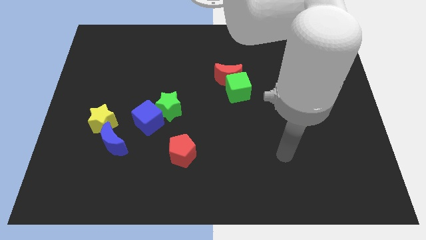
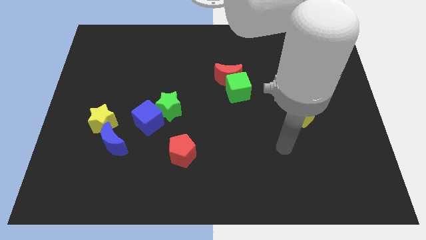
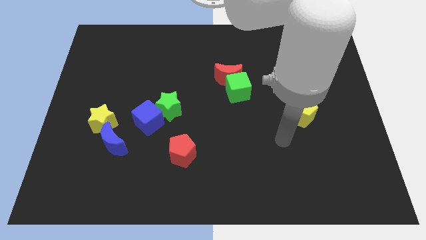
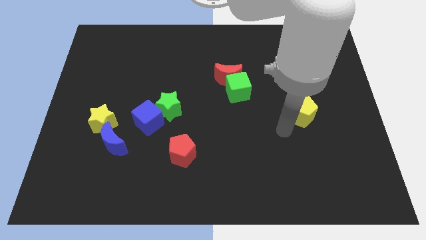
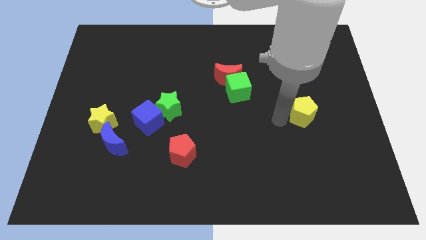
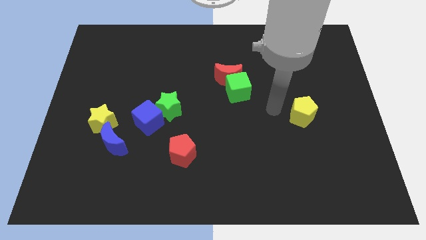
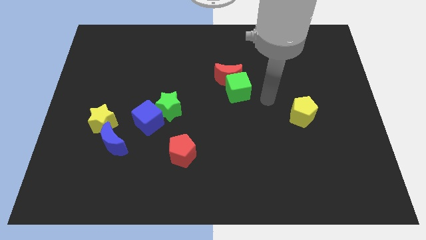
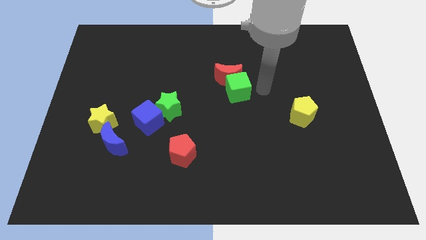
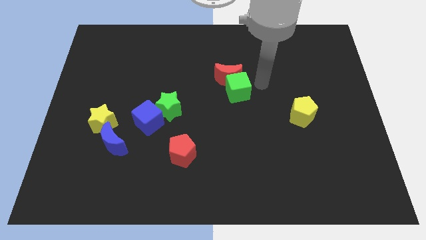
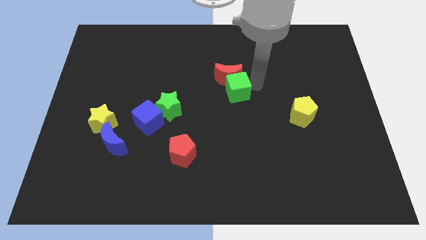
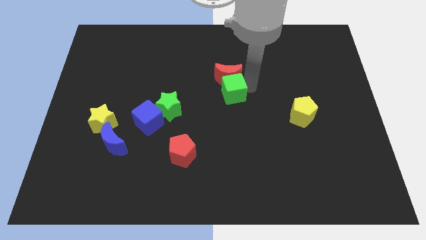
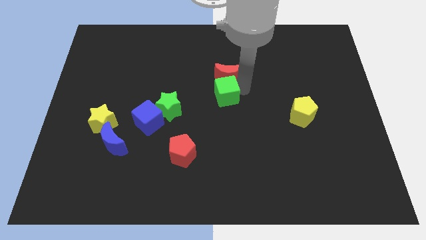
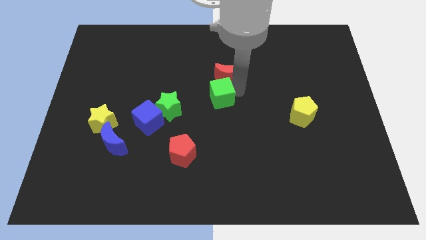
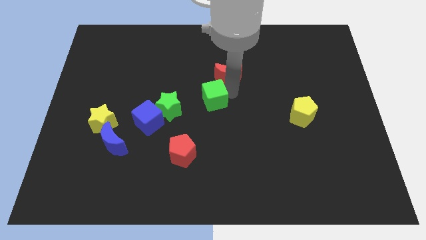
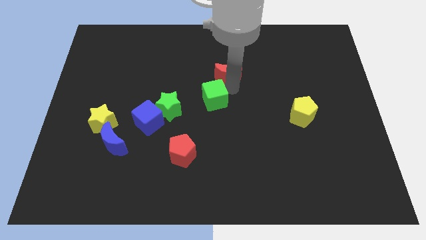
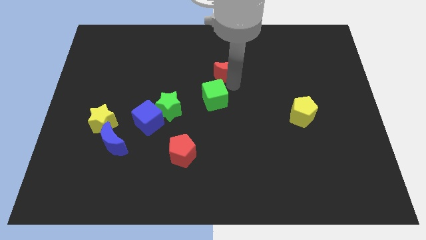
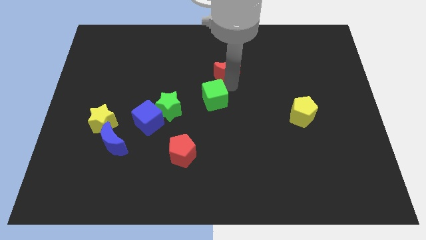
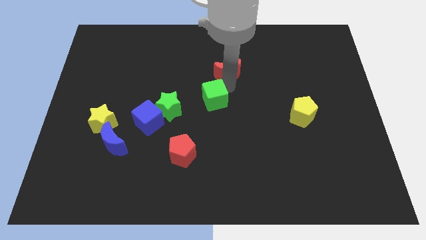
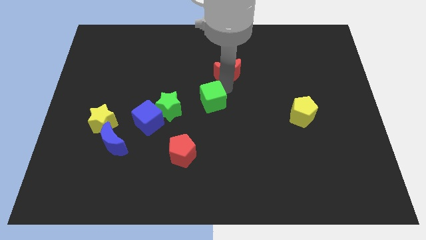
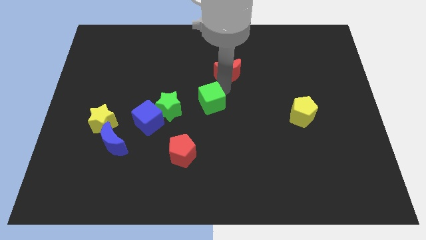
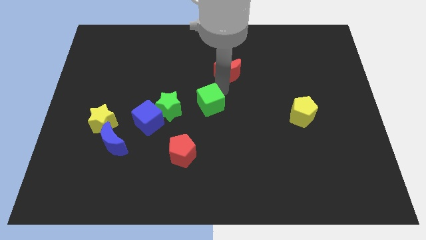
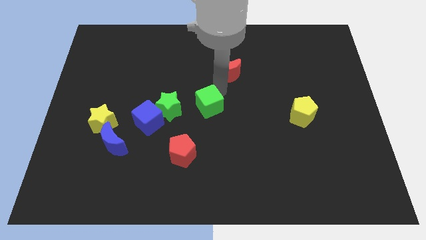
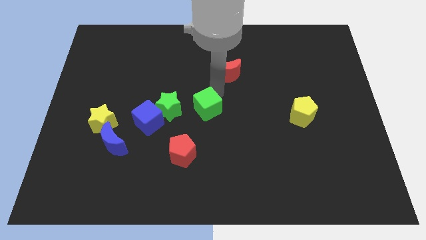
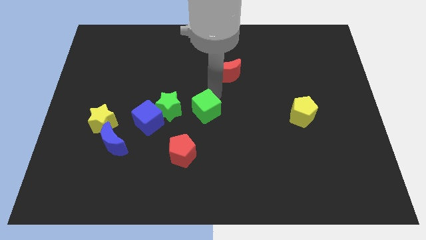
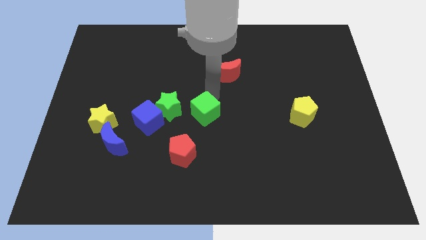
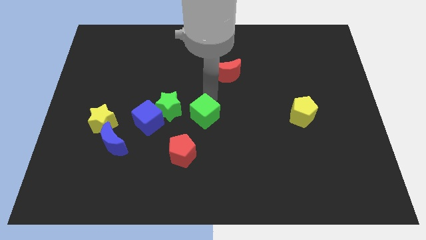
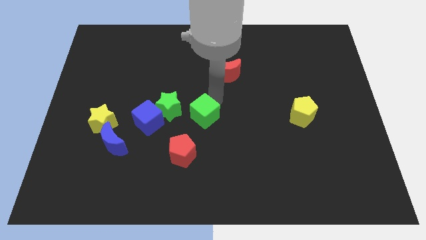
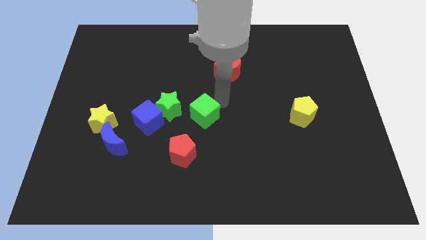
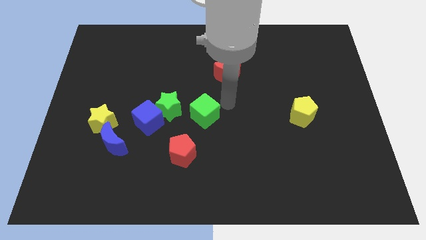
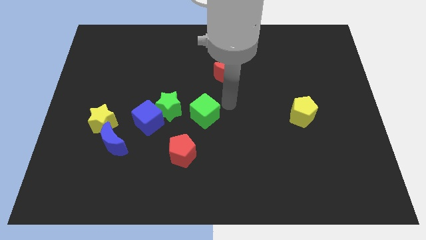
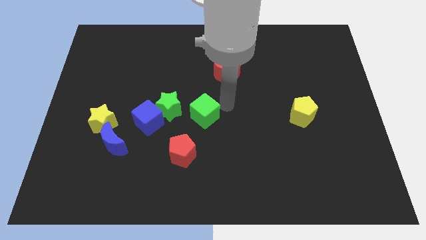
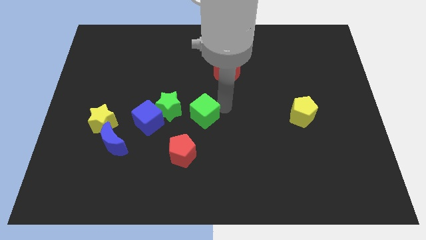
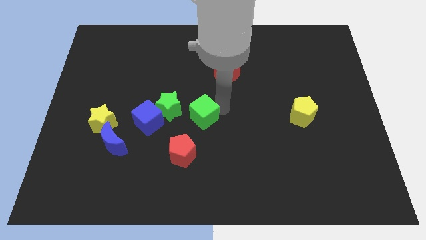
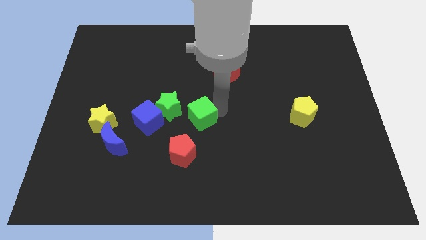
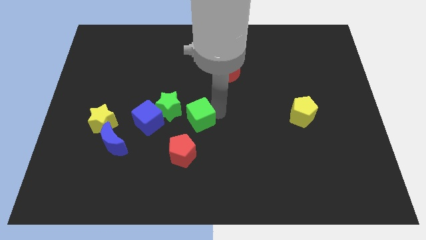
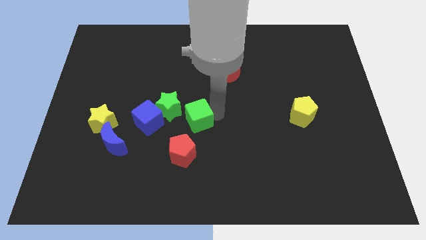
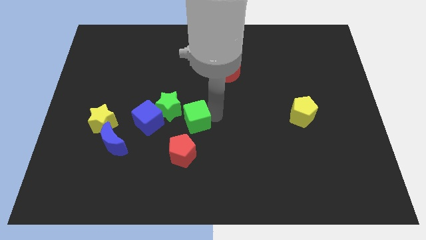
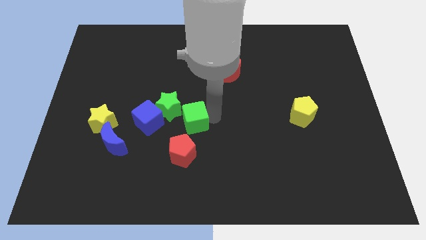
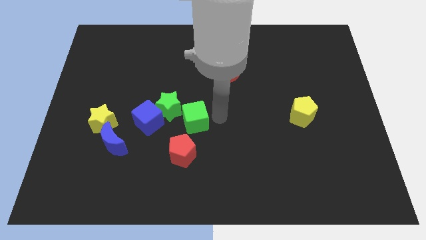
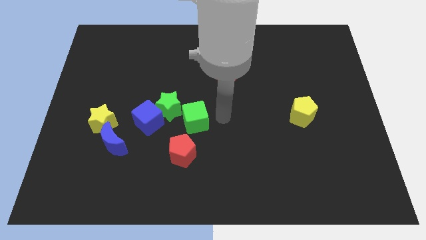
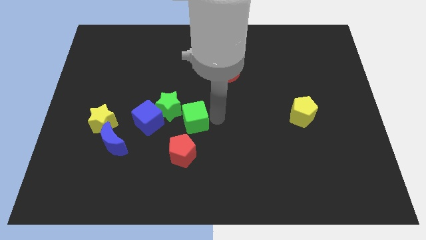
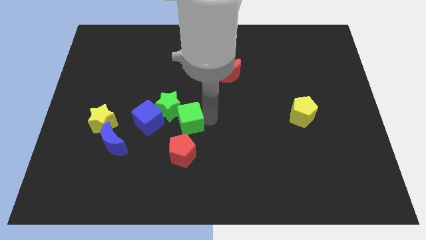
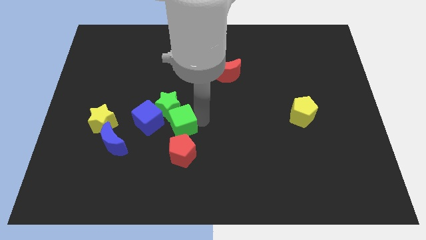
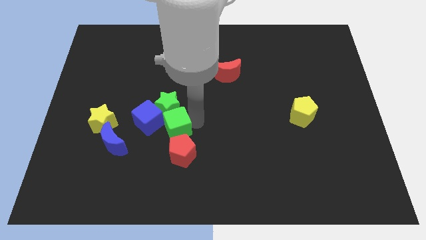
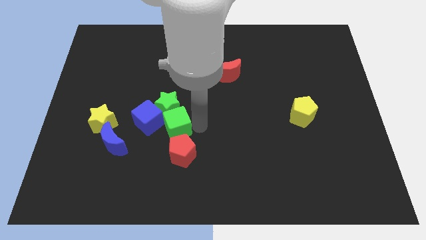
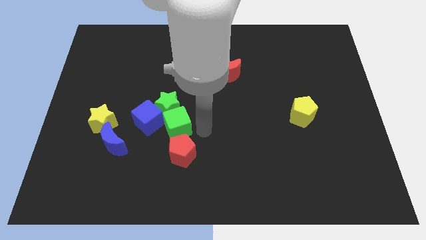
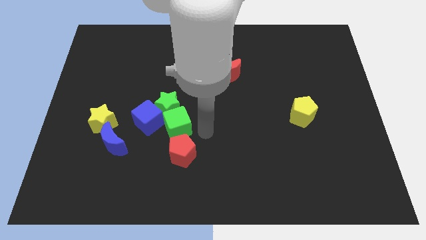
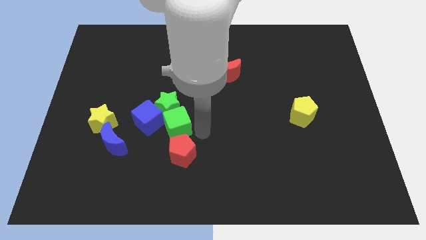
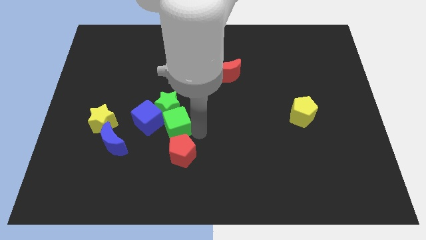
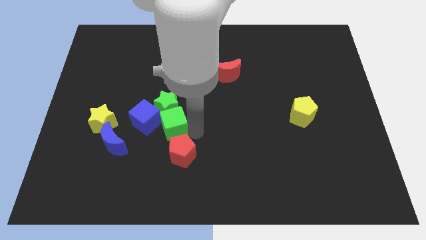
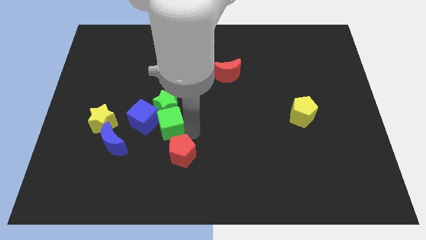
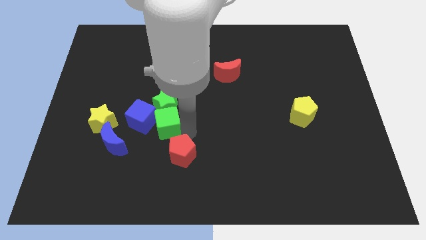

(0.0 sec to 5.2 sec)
slide the green cube close to the blue cube

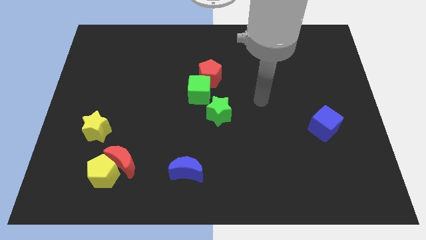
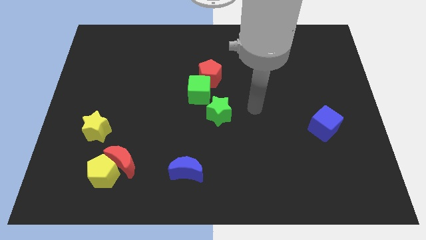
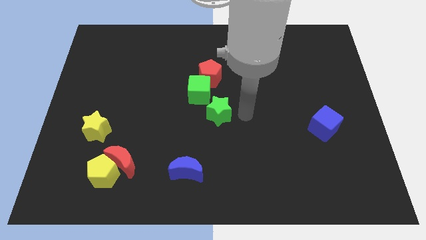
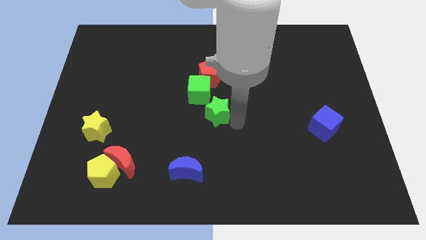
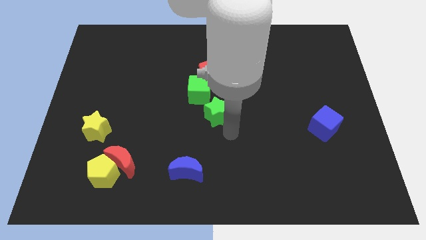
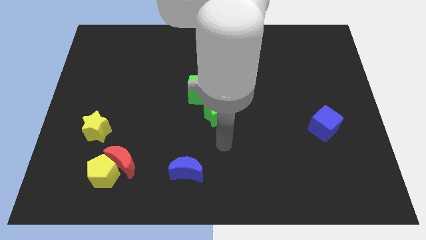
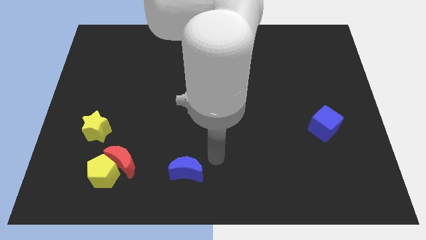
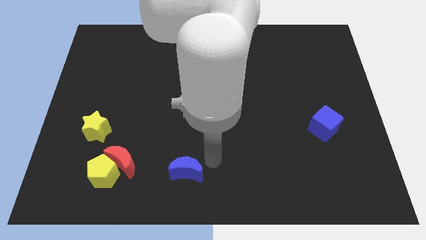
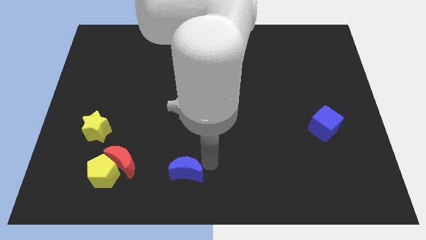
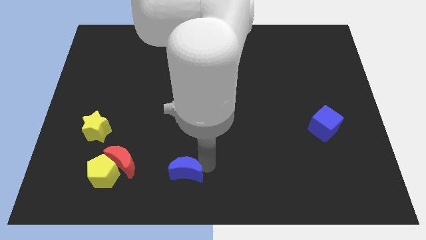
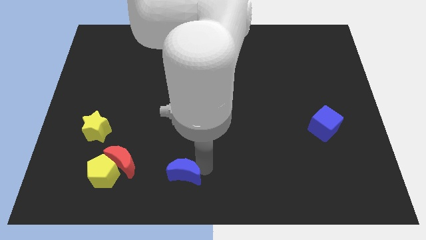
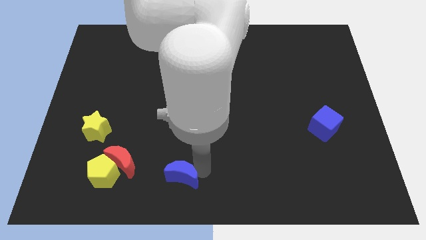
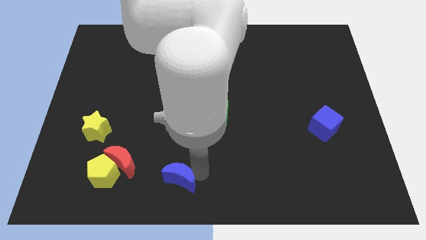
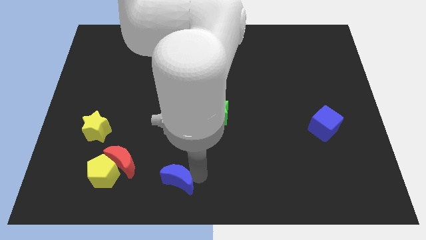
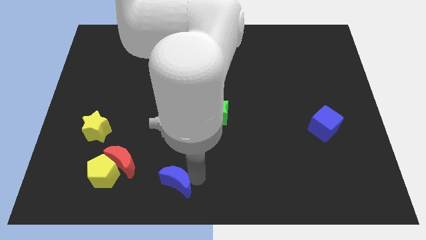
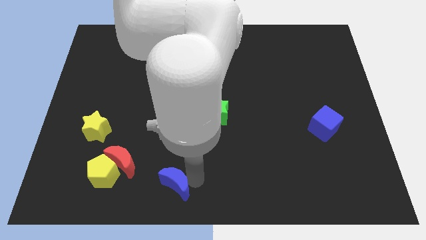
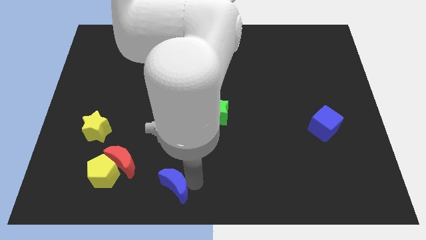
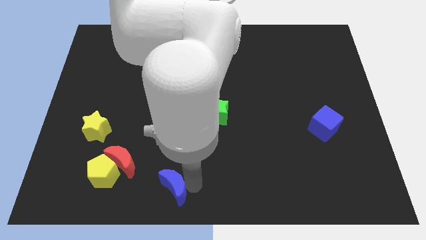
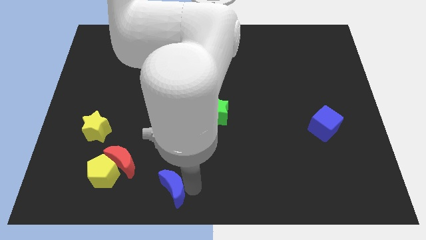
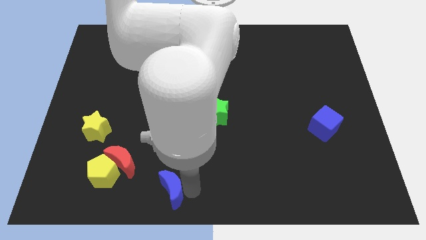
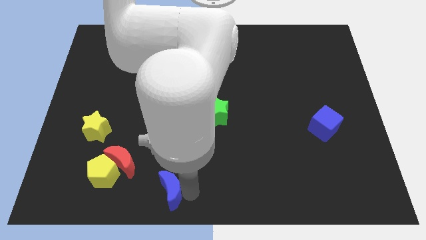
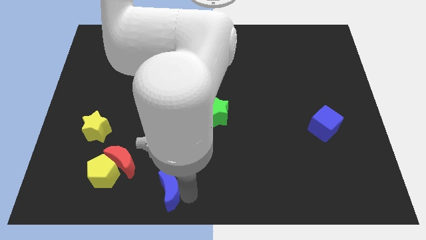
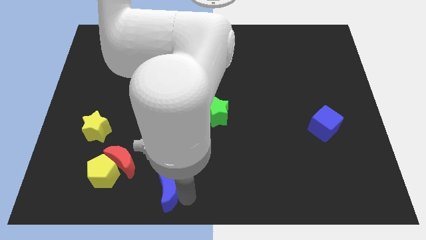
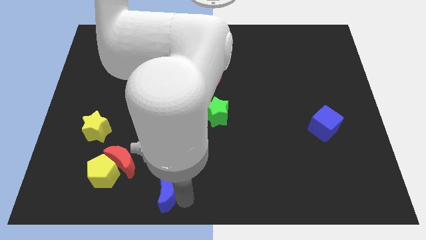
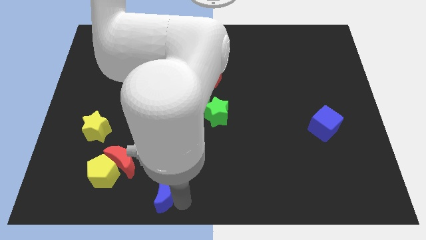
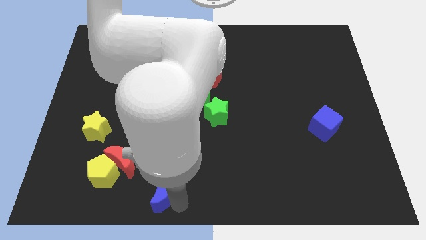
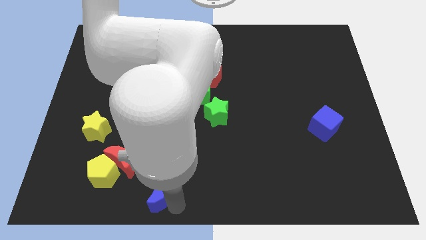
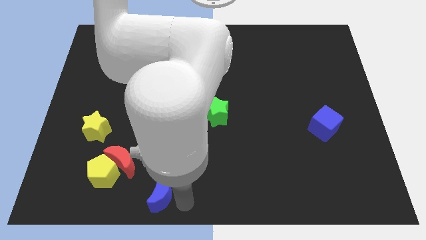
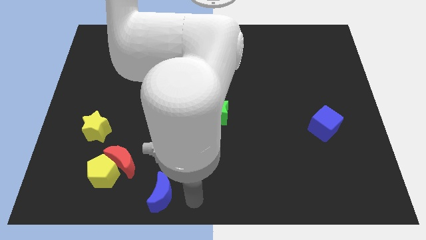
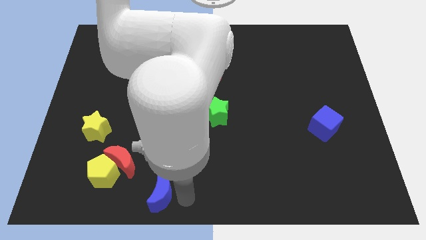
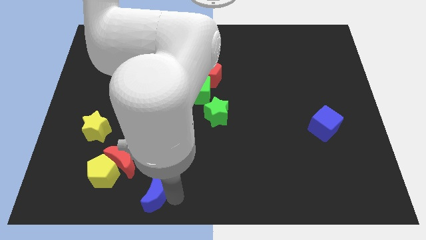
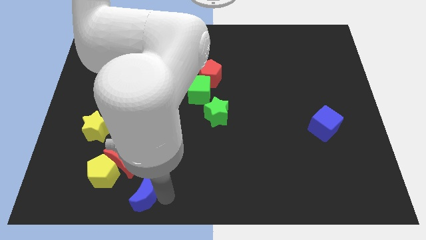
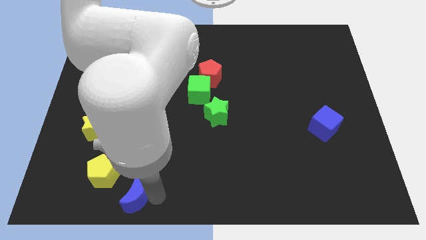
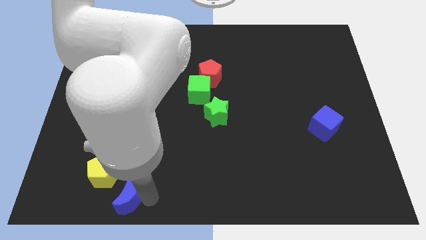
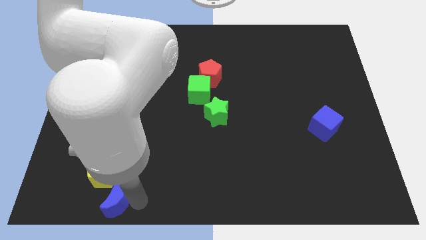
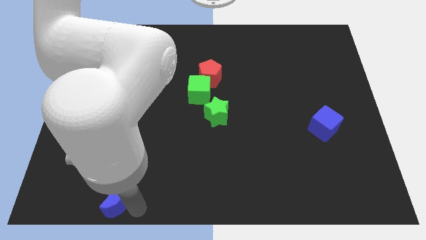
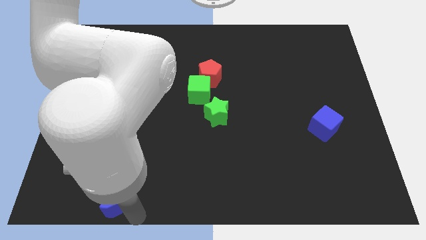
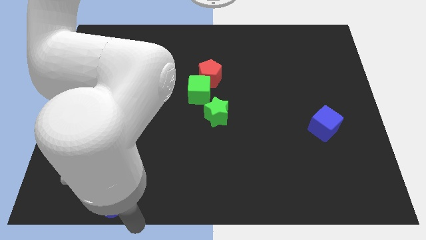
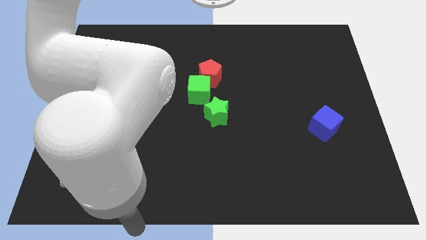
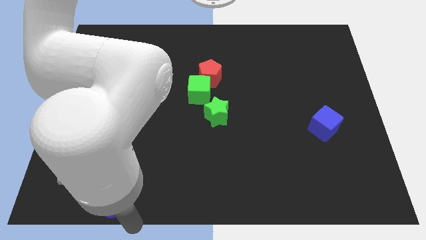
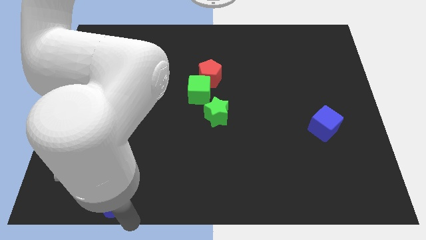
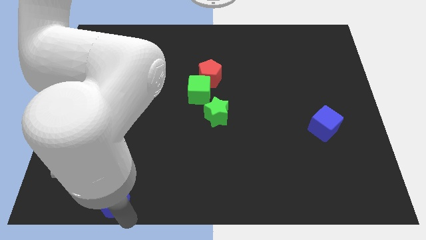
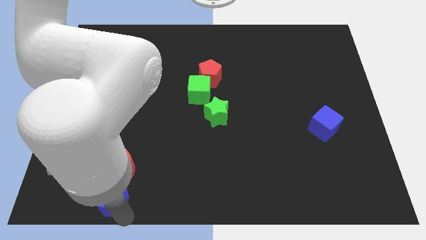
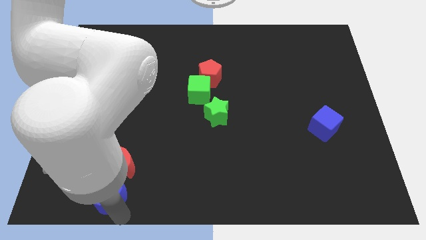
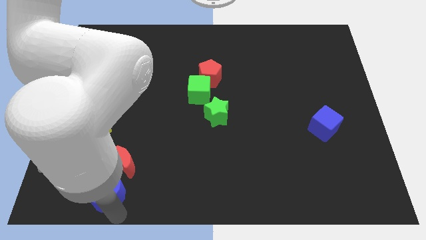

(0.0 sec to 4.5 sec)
slide the blue moon next to the yellow pentagon
